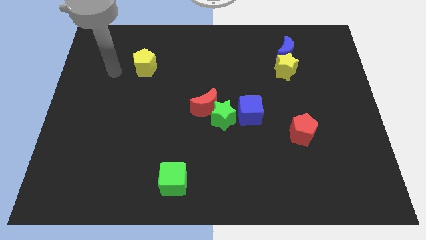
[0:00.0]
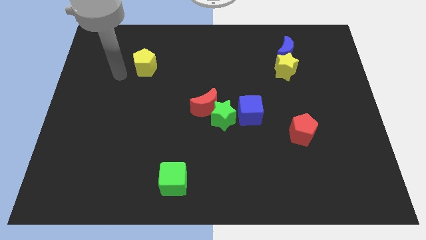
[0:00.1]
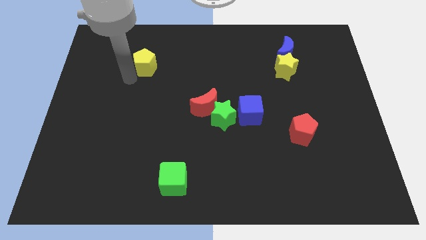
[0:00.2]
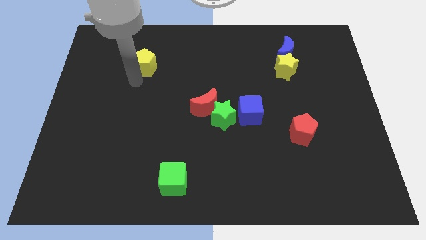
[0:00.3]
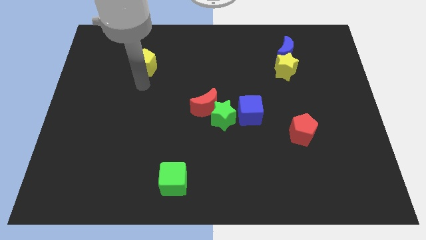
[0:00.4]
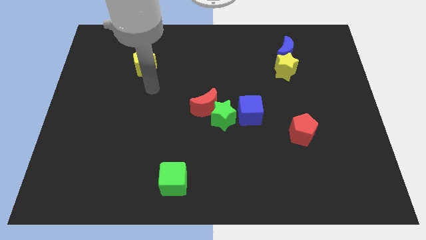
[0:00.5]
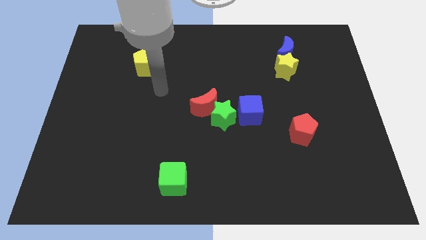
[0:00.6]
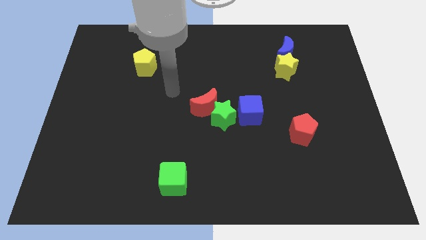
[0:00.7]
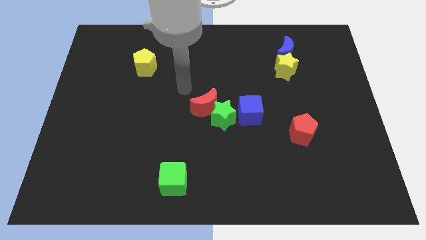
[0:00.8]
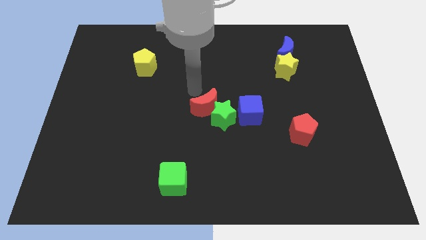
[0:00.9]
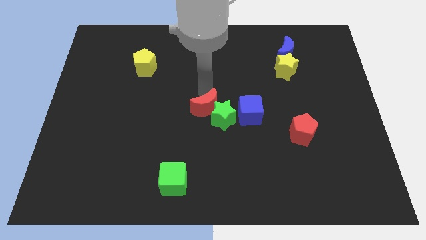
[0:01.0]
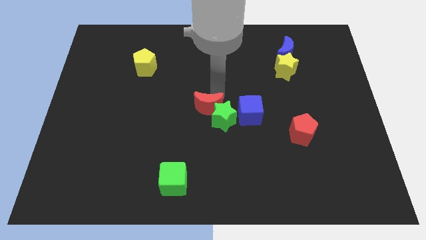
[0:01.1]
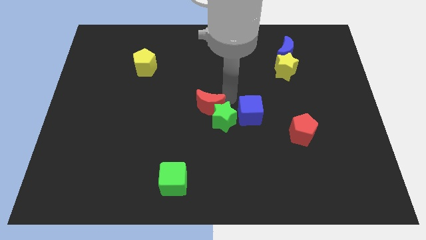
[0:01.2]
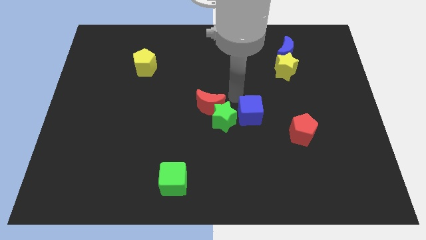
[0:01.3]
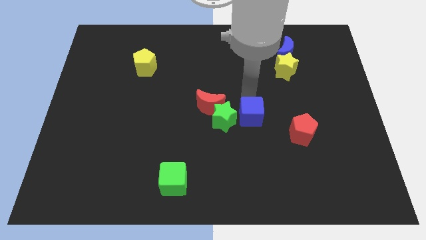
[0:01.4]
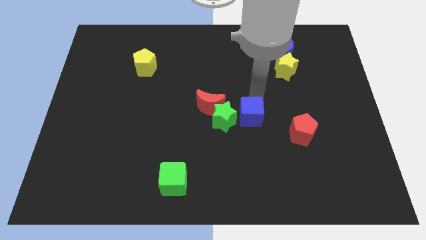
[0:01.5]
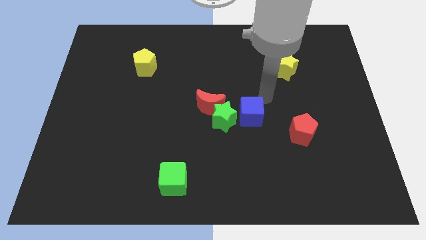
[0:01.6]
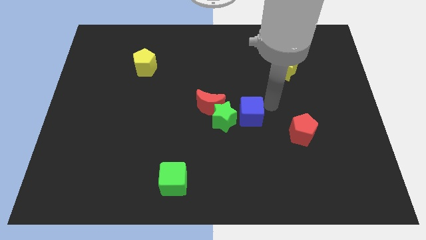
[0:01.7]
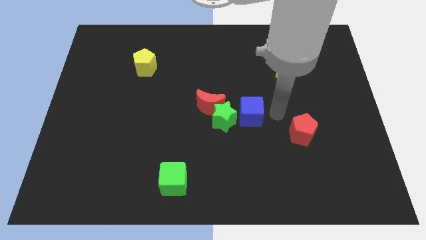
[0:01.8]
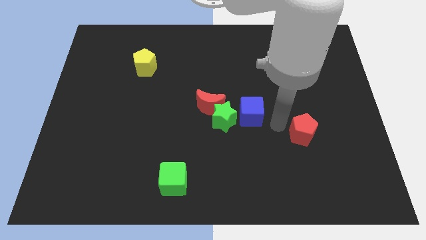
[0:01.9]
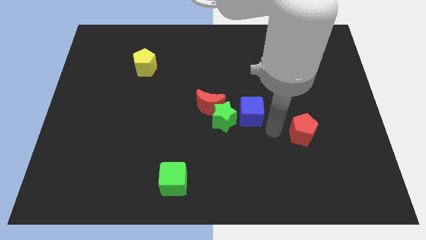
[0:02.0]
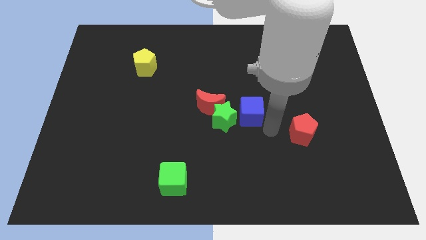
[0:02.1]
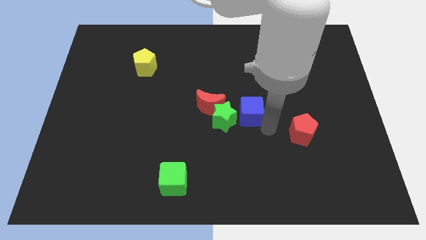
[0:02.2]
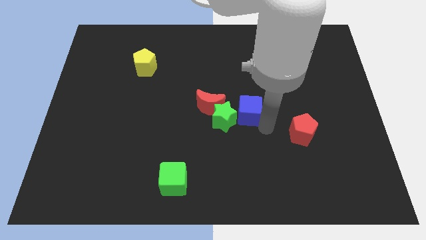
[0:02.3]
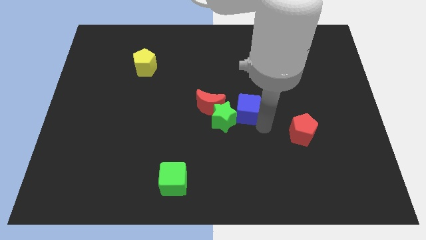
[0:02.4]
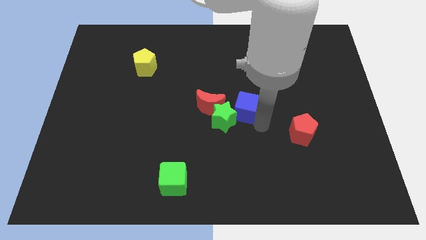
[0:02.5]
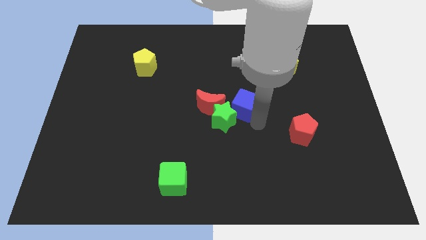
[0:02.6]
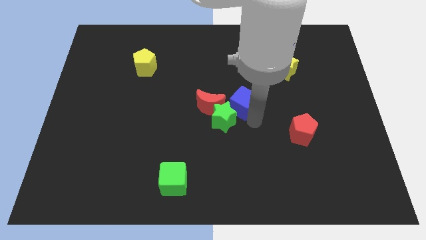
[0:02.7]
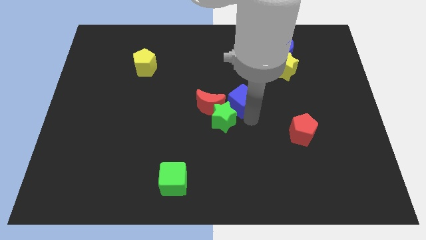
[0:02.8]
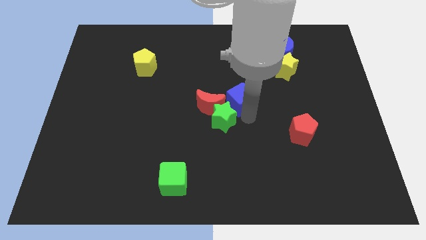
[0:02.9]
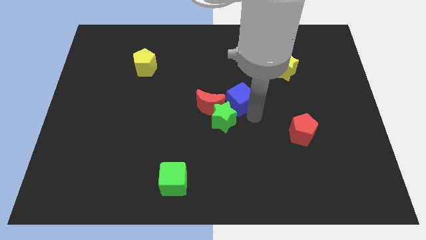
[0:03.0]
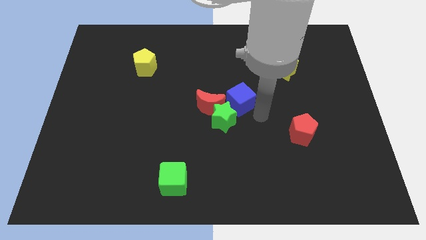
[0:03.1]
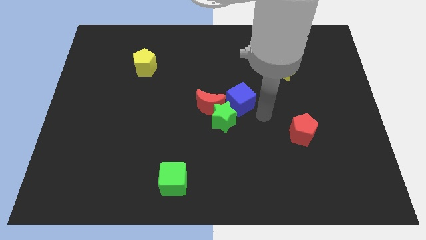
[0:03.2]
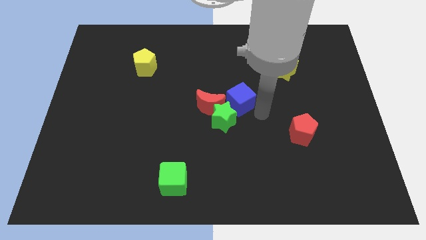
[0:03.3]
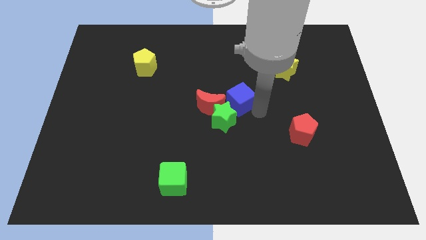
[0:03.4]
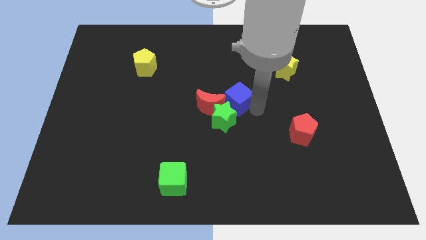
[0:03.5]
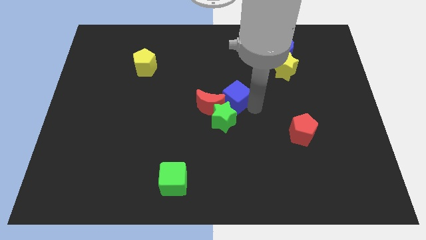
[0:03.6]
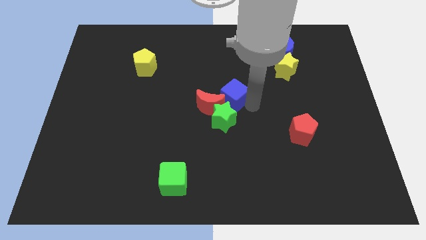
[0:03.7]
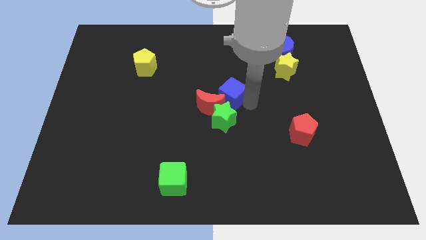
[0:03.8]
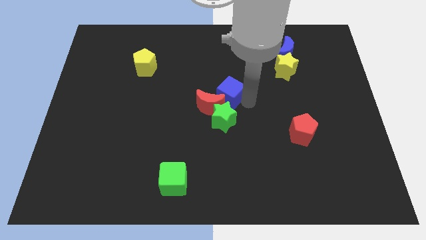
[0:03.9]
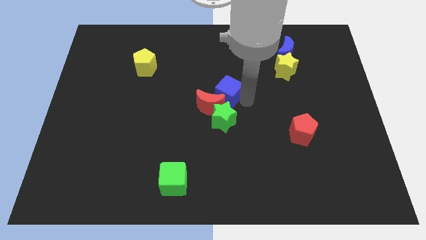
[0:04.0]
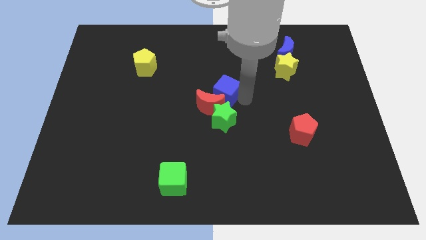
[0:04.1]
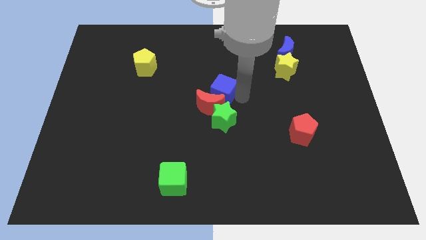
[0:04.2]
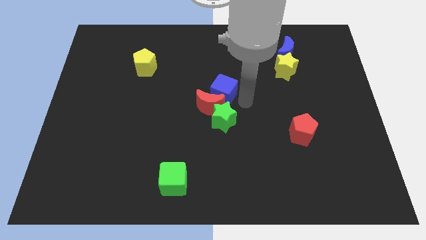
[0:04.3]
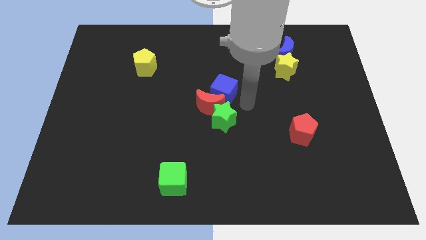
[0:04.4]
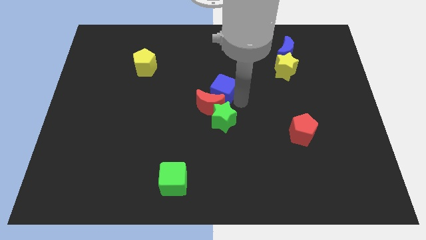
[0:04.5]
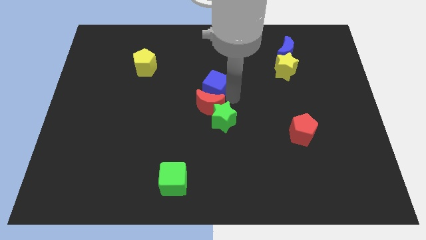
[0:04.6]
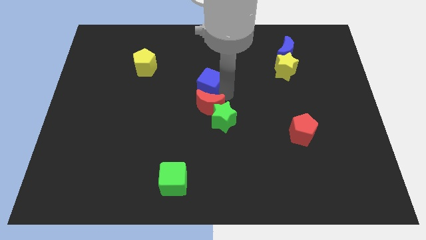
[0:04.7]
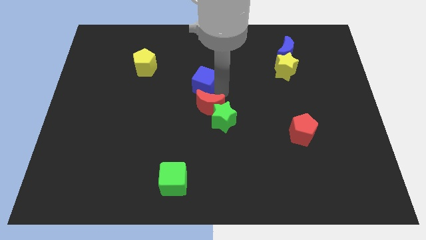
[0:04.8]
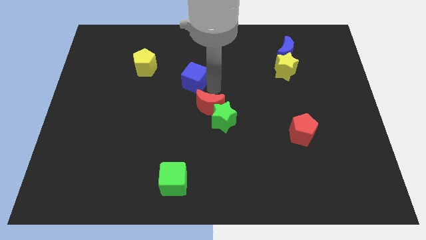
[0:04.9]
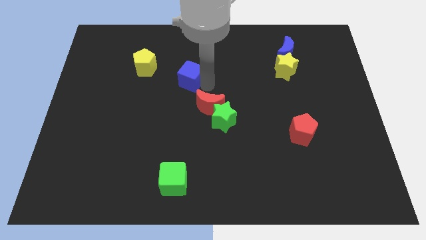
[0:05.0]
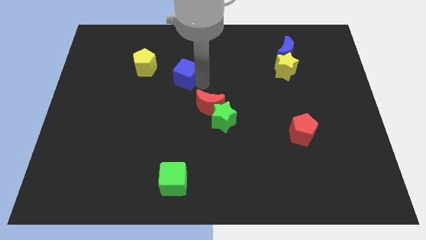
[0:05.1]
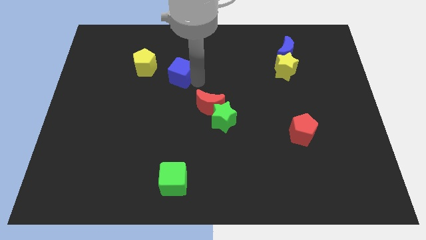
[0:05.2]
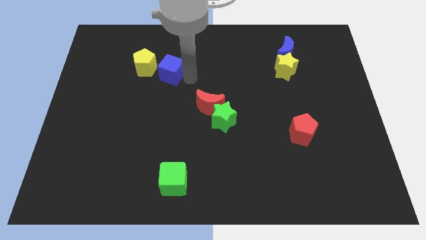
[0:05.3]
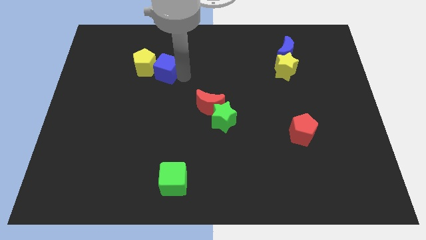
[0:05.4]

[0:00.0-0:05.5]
push the blue cube close to the yellow pentagon

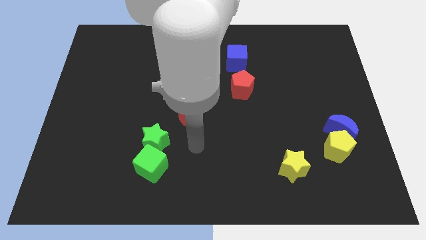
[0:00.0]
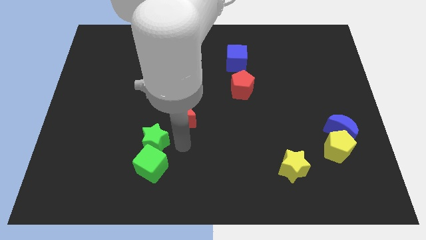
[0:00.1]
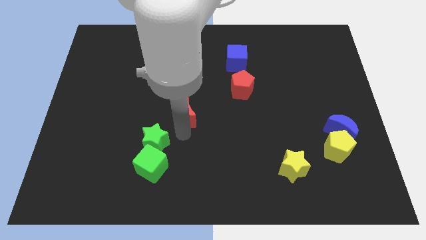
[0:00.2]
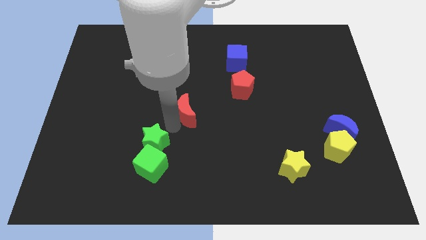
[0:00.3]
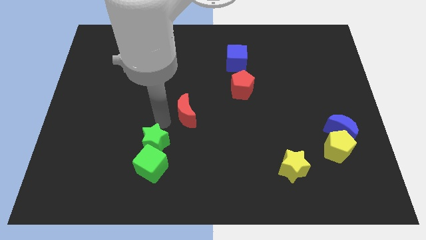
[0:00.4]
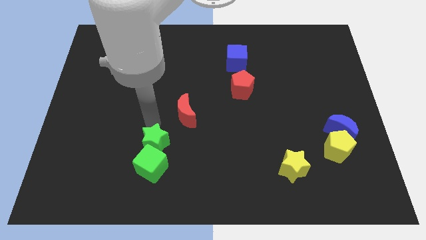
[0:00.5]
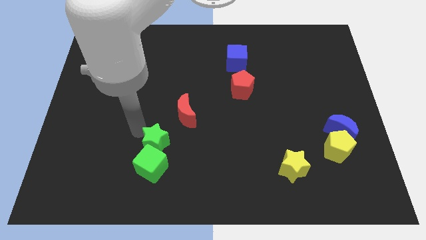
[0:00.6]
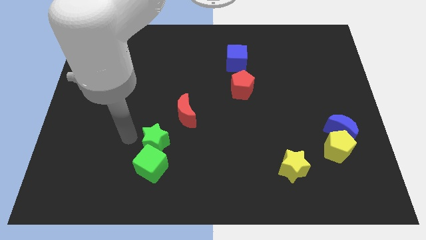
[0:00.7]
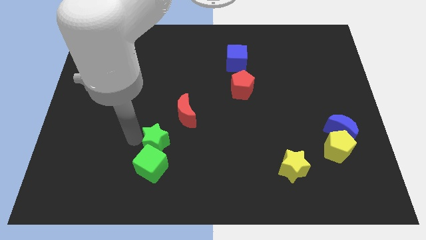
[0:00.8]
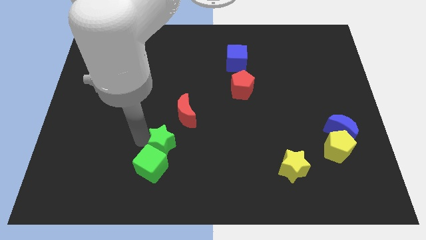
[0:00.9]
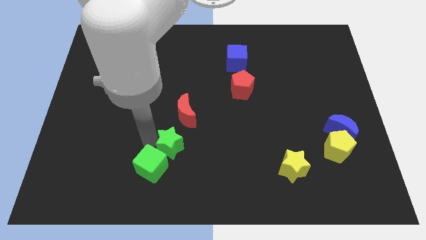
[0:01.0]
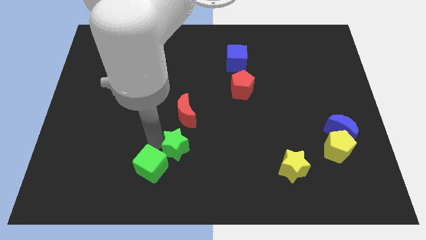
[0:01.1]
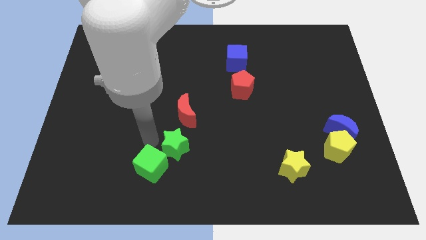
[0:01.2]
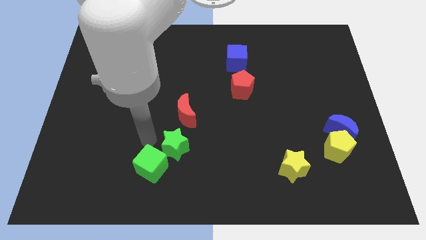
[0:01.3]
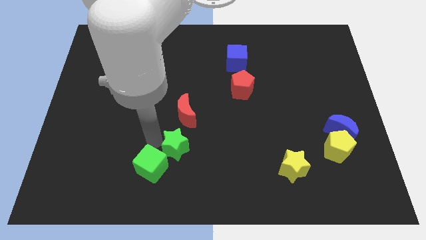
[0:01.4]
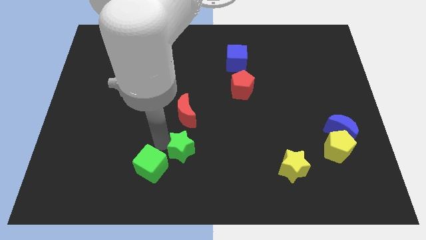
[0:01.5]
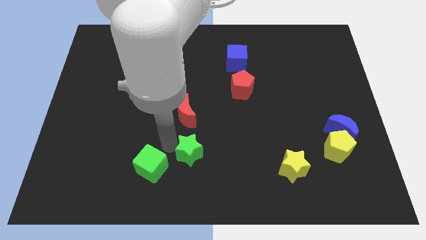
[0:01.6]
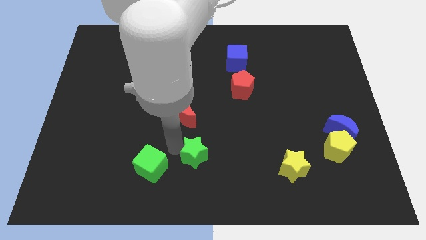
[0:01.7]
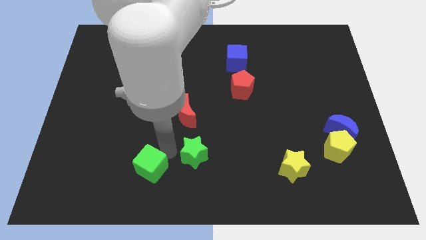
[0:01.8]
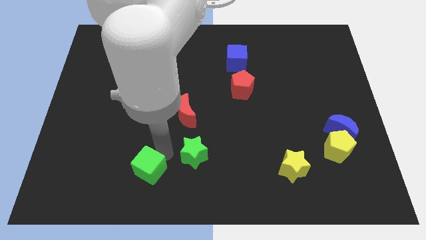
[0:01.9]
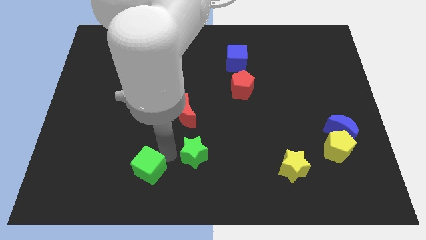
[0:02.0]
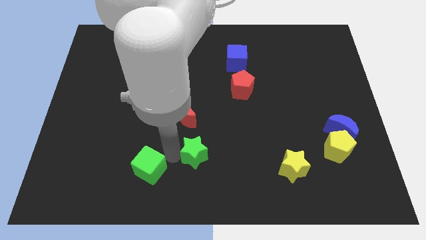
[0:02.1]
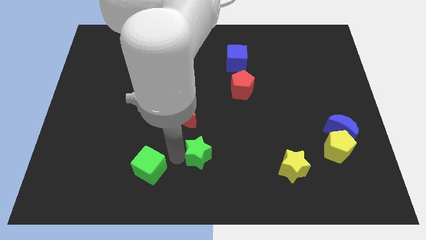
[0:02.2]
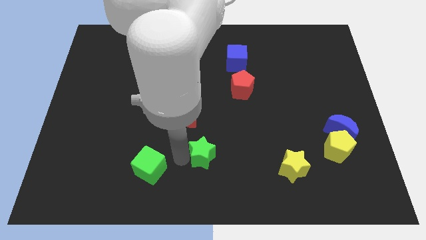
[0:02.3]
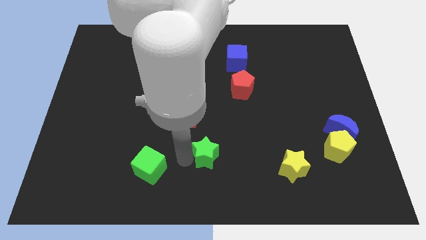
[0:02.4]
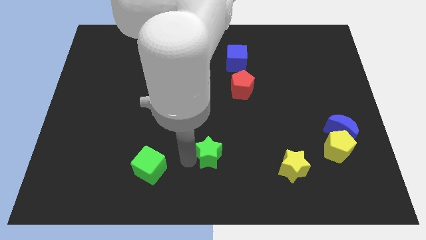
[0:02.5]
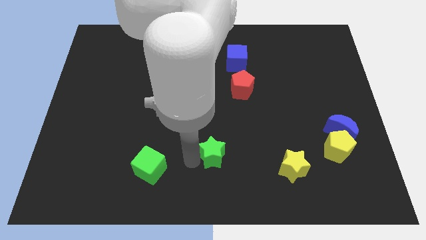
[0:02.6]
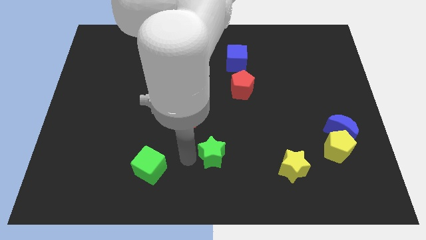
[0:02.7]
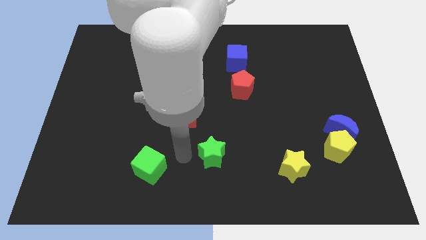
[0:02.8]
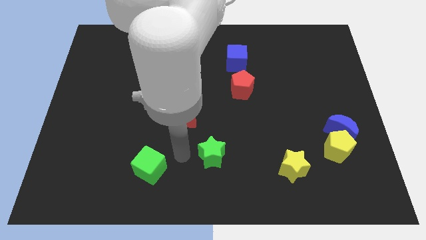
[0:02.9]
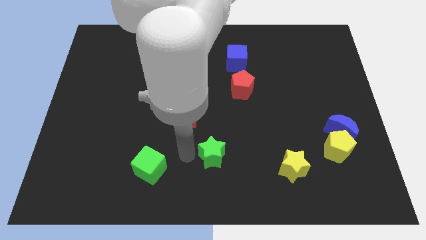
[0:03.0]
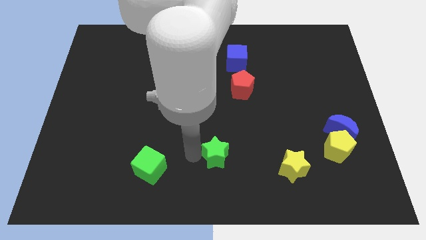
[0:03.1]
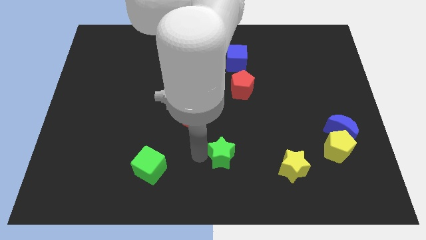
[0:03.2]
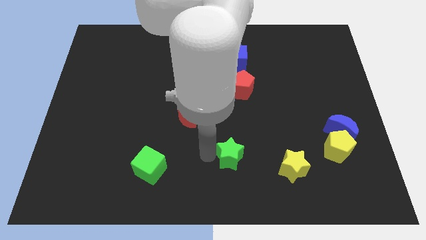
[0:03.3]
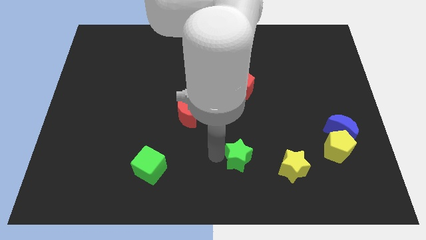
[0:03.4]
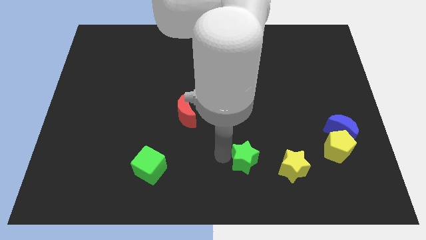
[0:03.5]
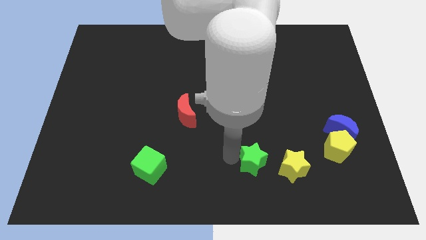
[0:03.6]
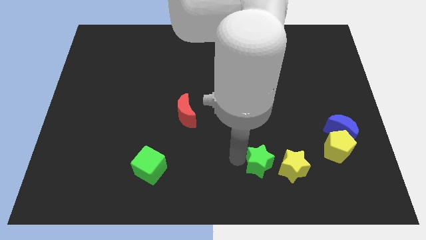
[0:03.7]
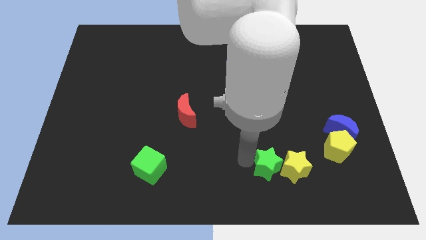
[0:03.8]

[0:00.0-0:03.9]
slide the green star next to the yellow star
